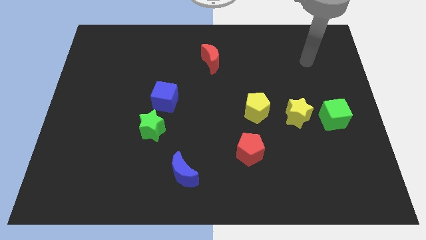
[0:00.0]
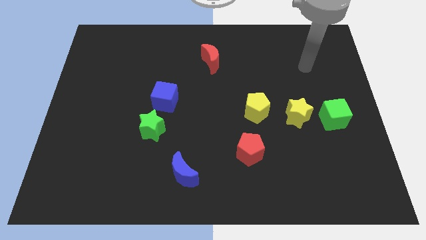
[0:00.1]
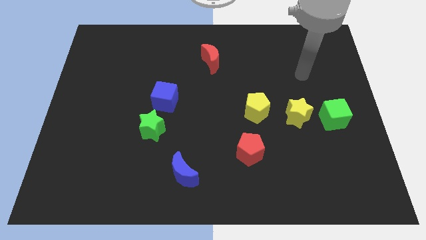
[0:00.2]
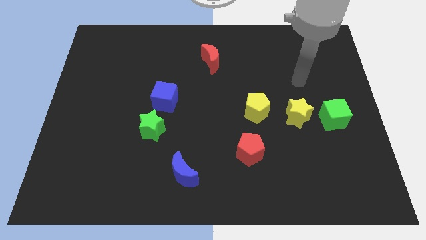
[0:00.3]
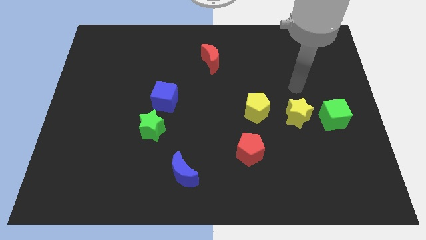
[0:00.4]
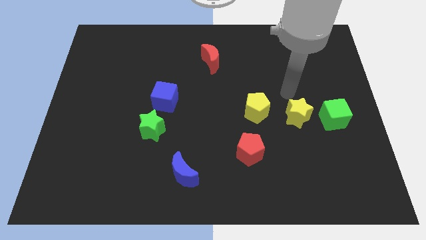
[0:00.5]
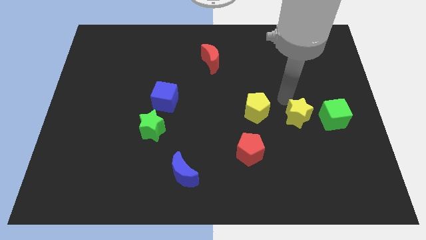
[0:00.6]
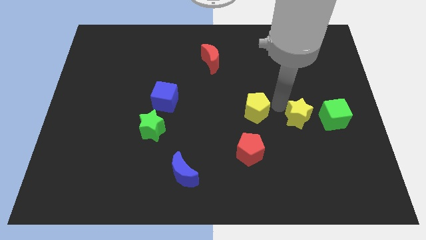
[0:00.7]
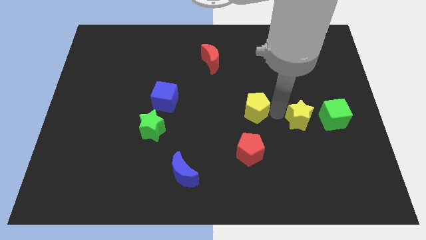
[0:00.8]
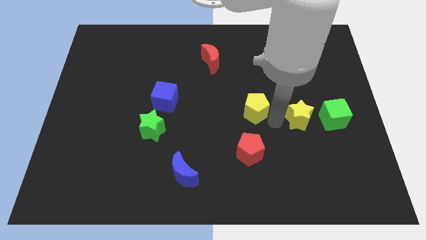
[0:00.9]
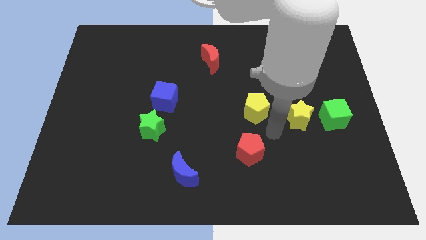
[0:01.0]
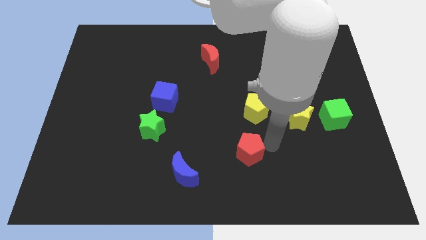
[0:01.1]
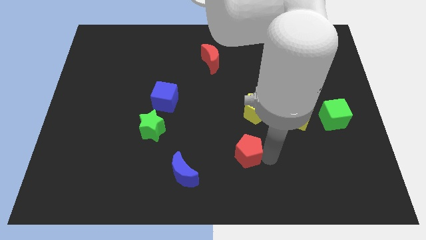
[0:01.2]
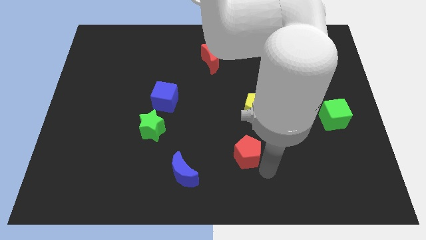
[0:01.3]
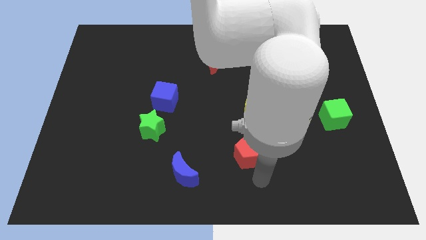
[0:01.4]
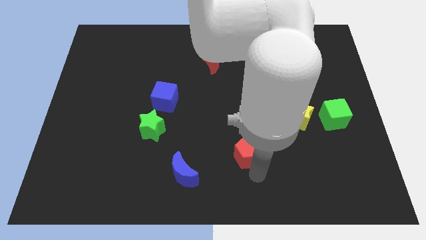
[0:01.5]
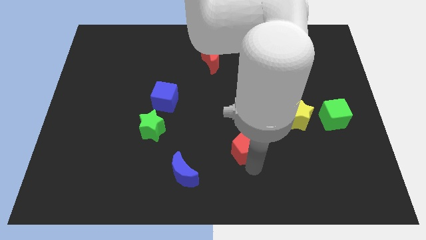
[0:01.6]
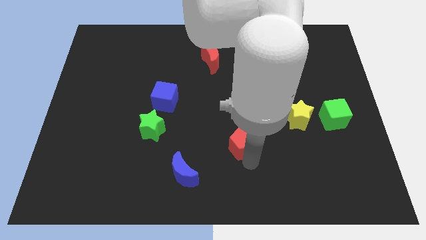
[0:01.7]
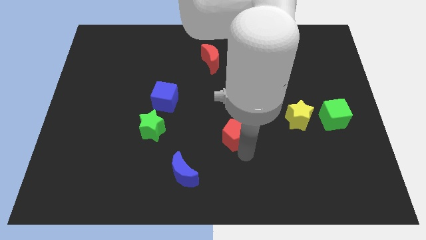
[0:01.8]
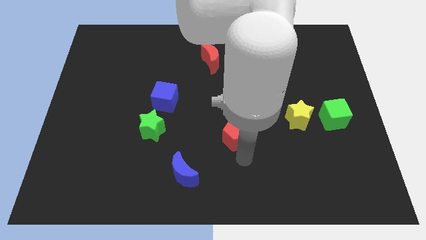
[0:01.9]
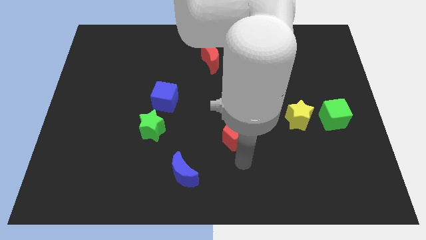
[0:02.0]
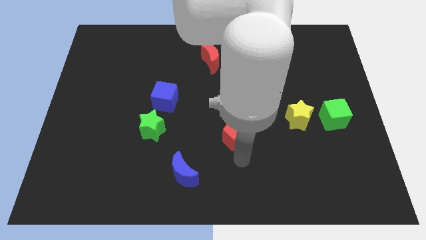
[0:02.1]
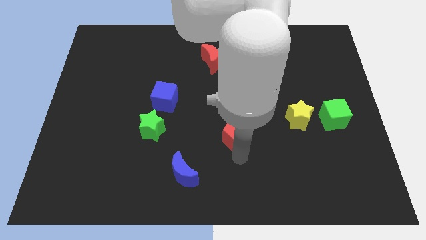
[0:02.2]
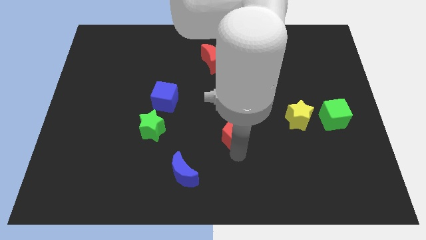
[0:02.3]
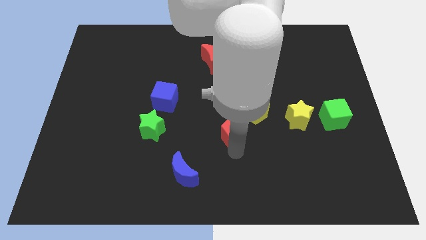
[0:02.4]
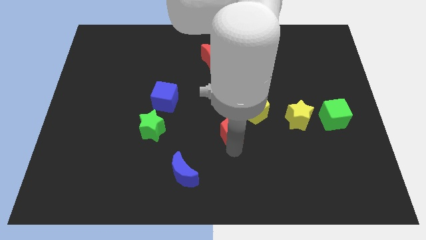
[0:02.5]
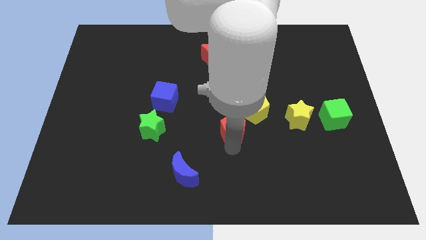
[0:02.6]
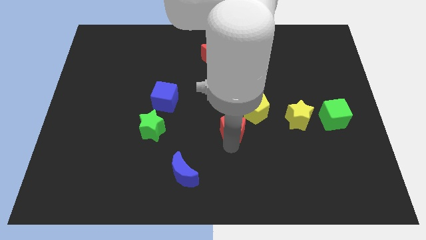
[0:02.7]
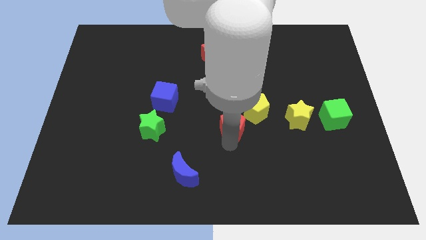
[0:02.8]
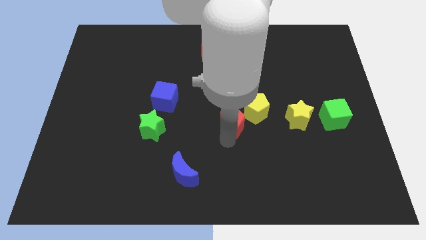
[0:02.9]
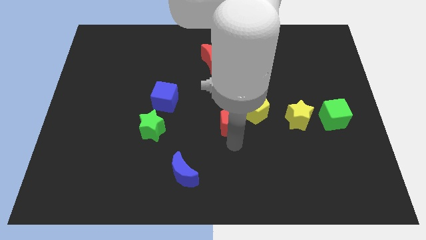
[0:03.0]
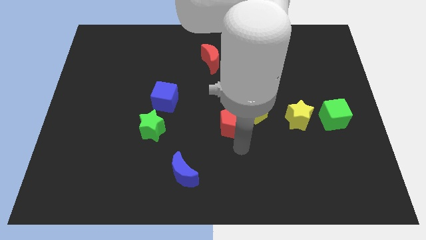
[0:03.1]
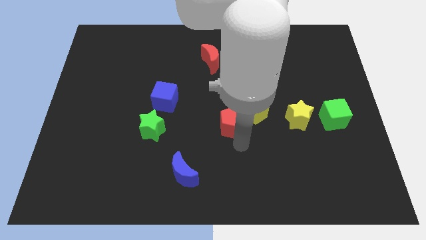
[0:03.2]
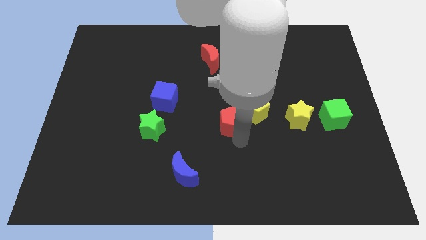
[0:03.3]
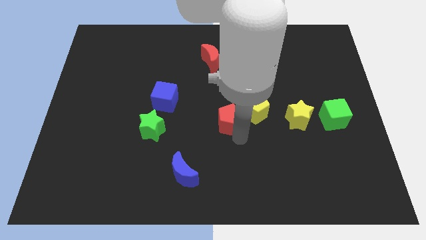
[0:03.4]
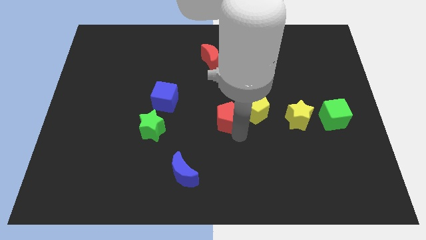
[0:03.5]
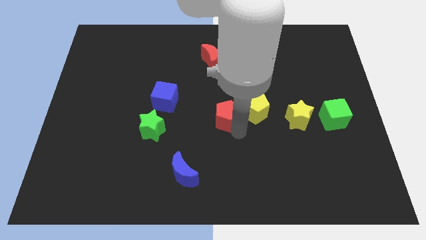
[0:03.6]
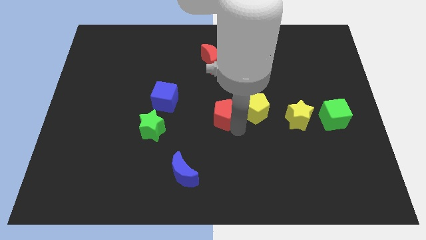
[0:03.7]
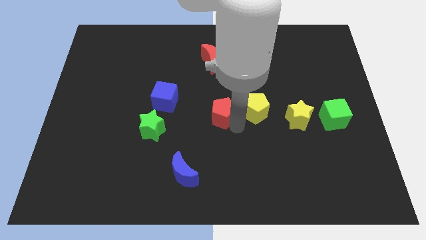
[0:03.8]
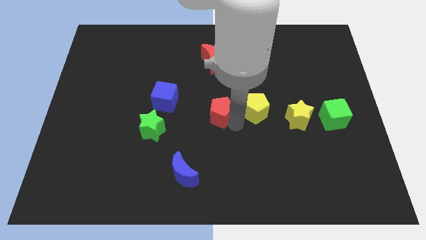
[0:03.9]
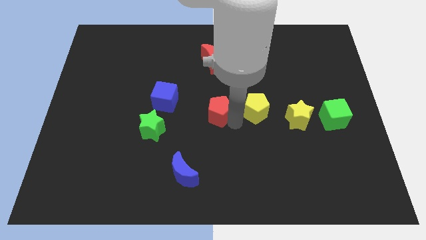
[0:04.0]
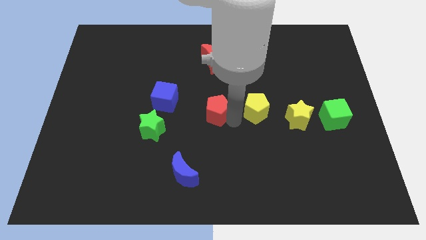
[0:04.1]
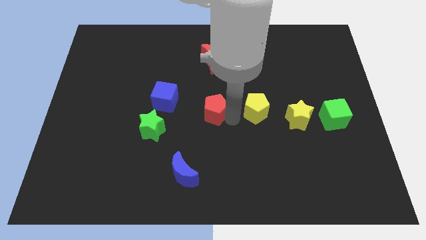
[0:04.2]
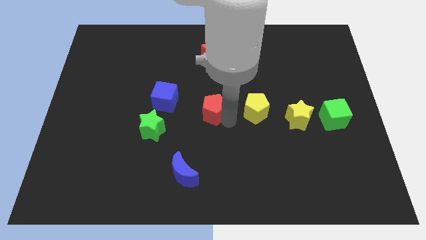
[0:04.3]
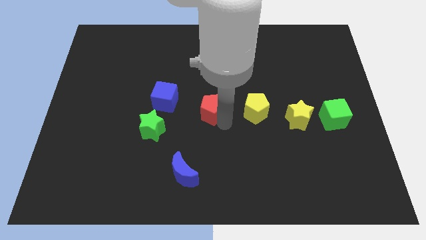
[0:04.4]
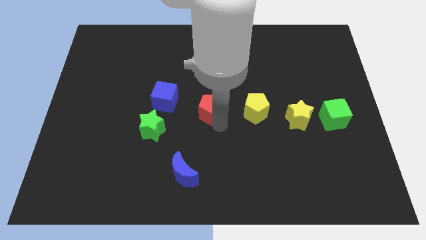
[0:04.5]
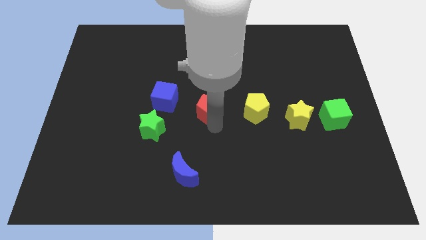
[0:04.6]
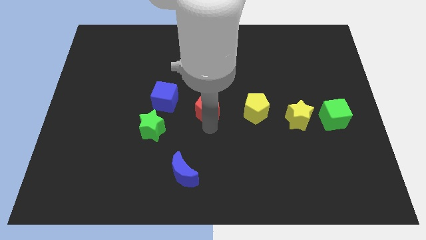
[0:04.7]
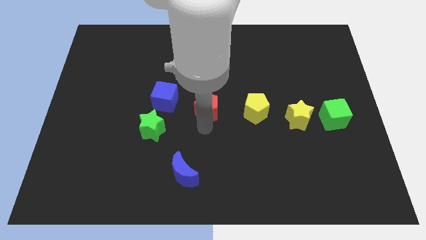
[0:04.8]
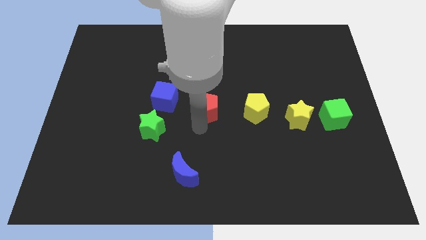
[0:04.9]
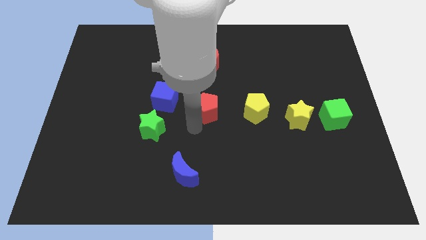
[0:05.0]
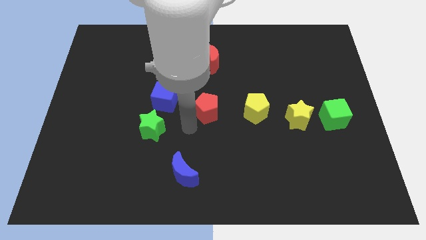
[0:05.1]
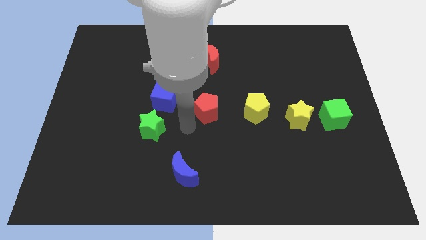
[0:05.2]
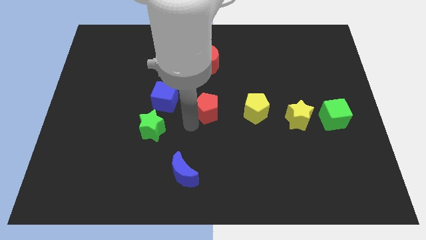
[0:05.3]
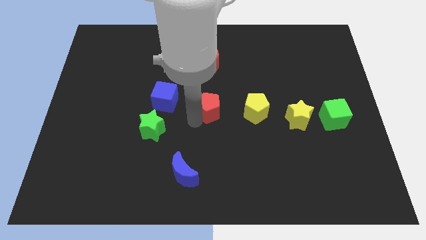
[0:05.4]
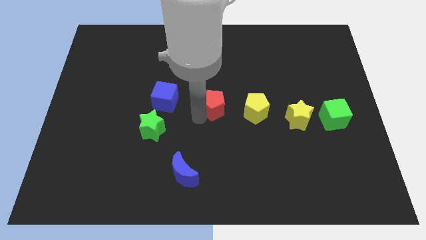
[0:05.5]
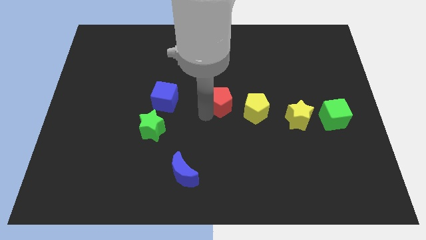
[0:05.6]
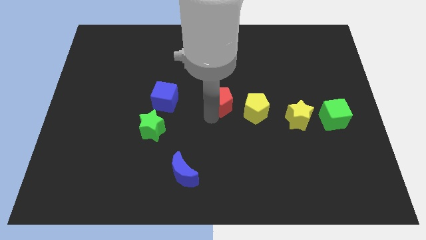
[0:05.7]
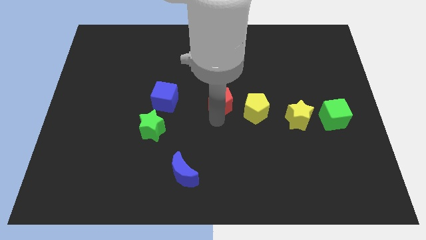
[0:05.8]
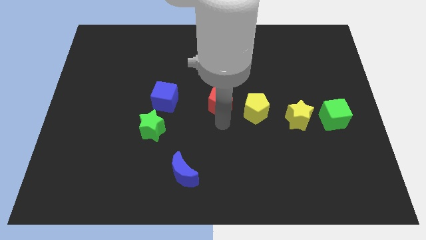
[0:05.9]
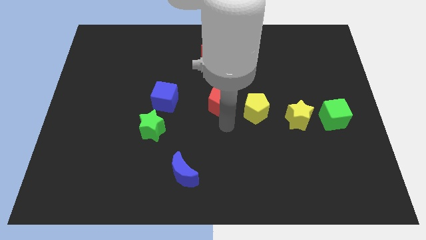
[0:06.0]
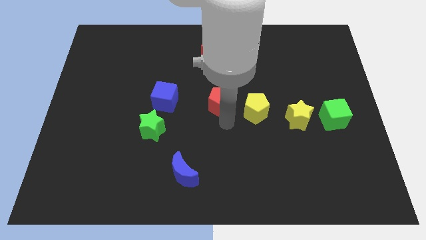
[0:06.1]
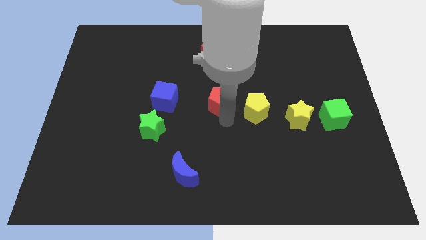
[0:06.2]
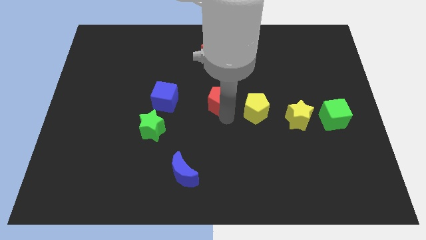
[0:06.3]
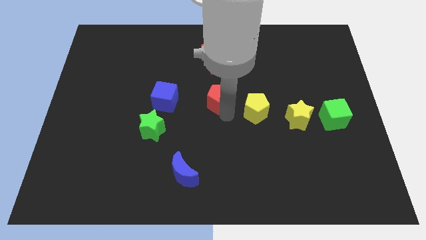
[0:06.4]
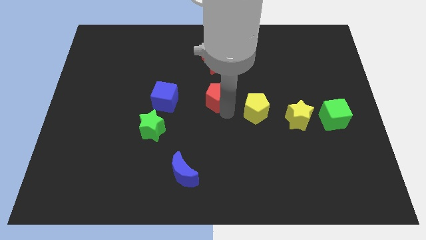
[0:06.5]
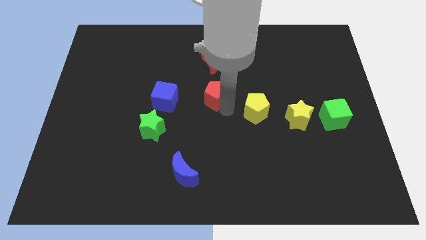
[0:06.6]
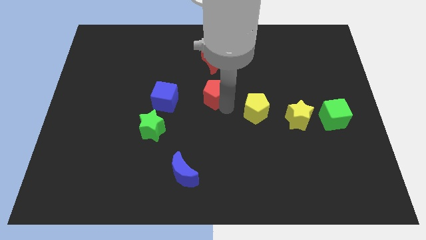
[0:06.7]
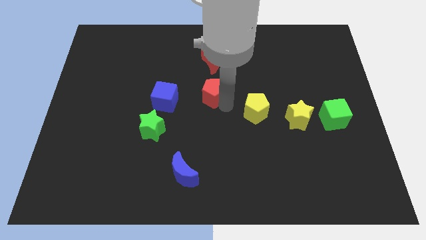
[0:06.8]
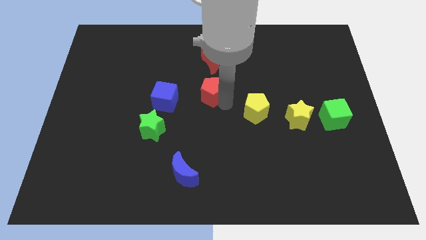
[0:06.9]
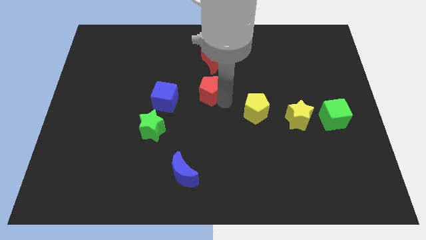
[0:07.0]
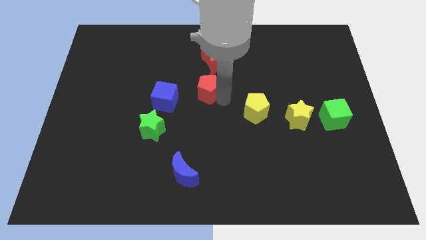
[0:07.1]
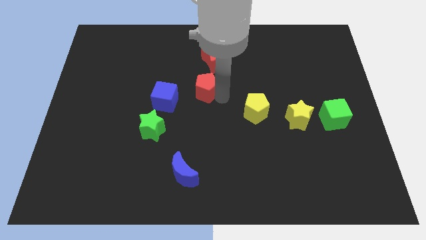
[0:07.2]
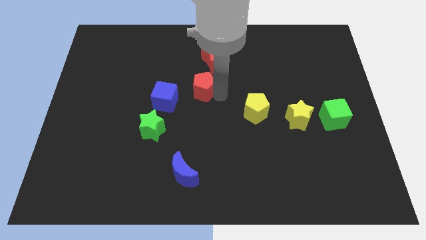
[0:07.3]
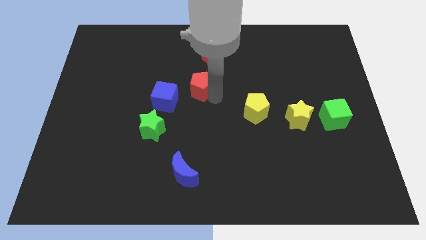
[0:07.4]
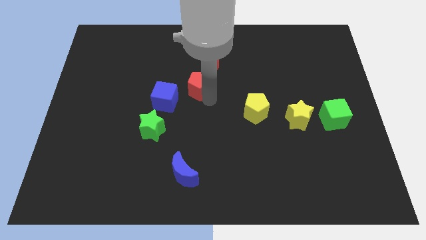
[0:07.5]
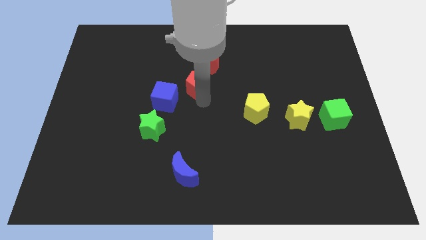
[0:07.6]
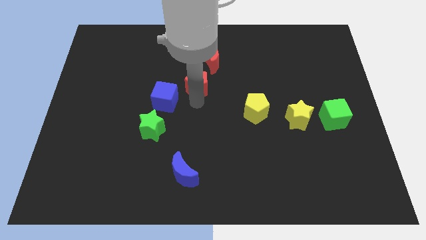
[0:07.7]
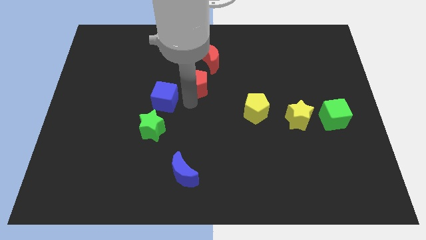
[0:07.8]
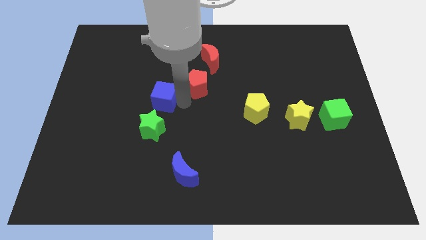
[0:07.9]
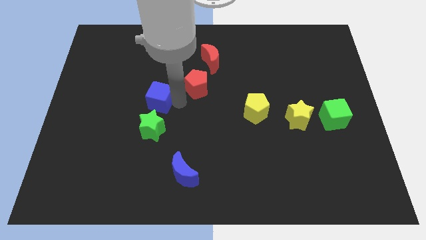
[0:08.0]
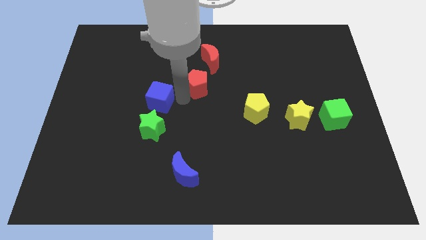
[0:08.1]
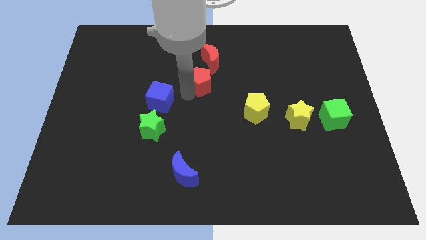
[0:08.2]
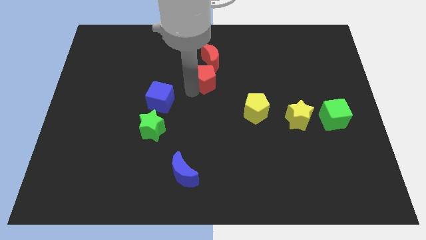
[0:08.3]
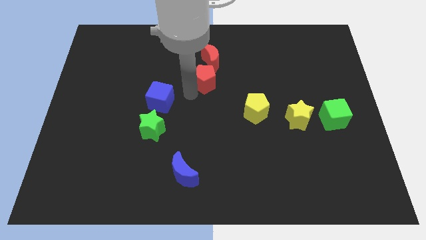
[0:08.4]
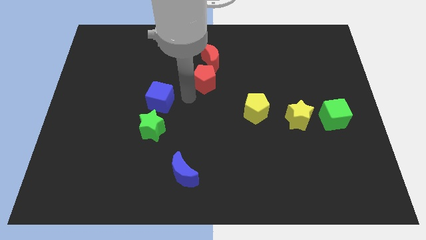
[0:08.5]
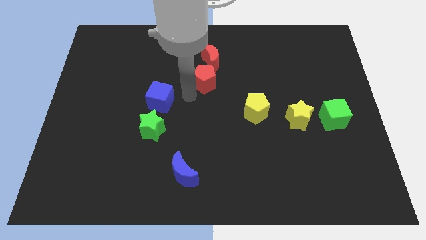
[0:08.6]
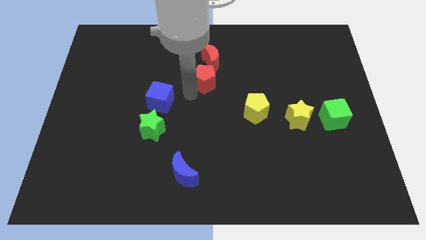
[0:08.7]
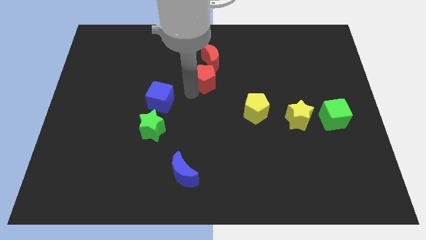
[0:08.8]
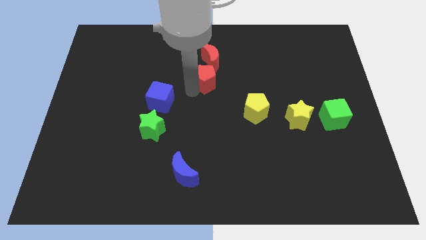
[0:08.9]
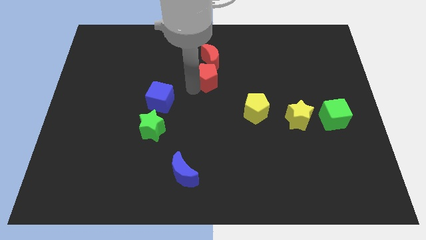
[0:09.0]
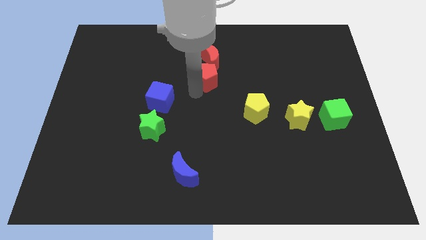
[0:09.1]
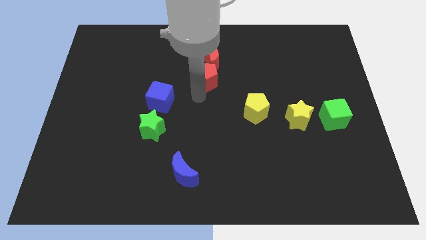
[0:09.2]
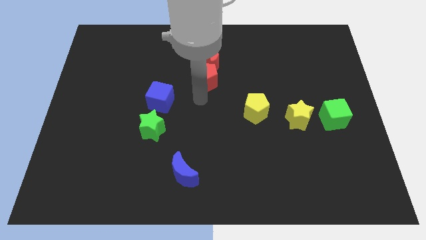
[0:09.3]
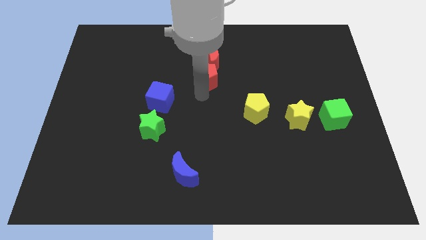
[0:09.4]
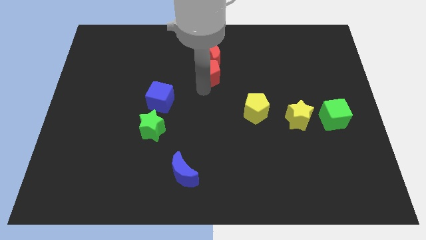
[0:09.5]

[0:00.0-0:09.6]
put the red pentagon to the red moon
